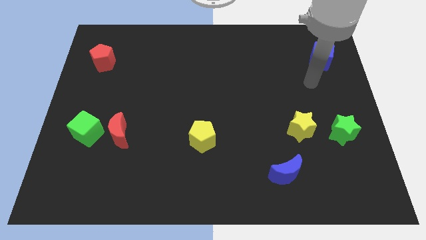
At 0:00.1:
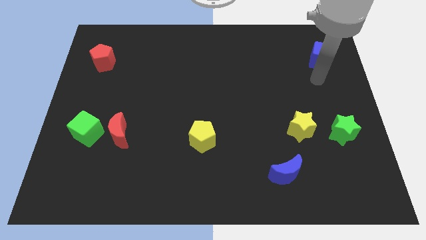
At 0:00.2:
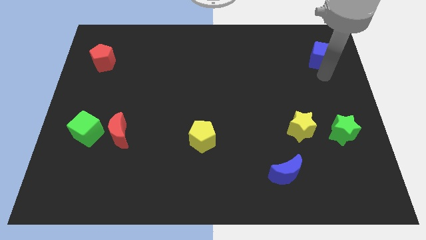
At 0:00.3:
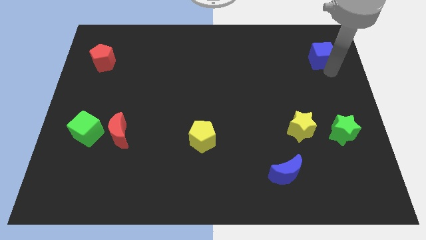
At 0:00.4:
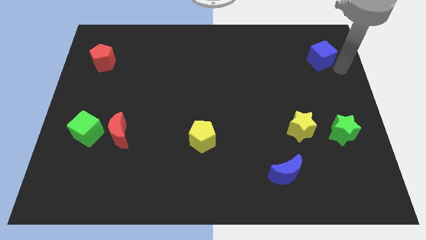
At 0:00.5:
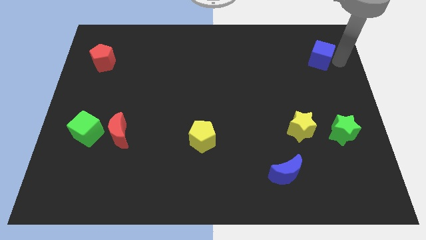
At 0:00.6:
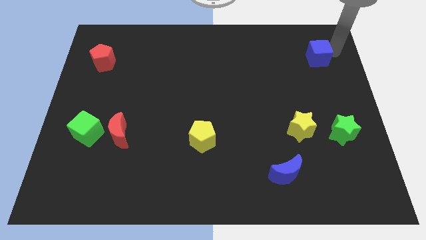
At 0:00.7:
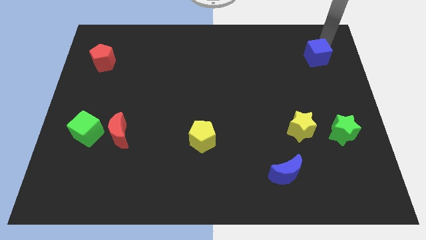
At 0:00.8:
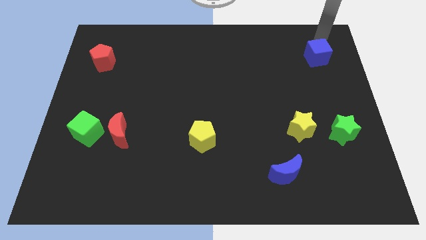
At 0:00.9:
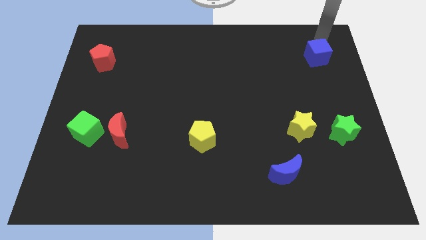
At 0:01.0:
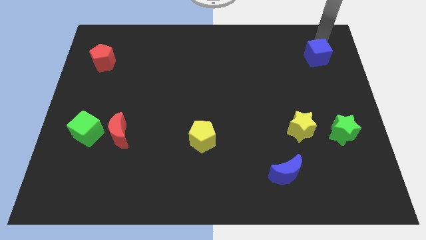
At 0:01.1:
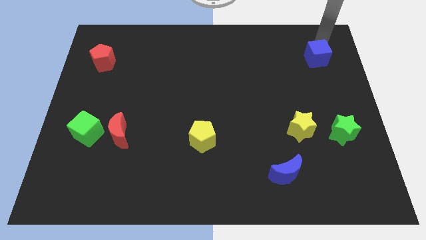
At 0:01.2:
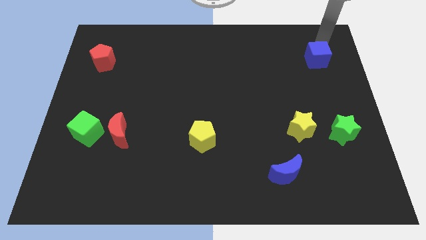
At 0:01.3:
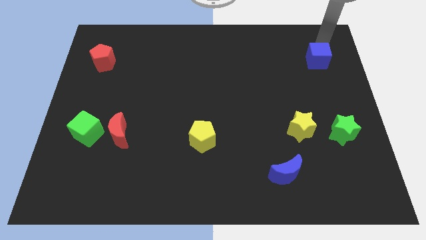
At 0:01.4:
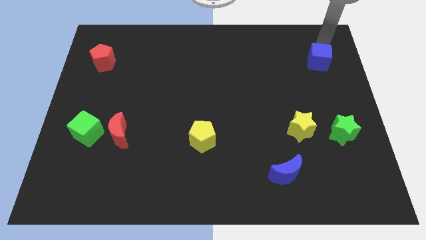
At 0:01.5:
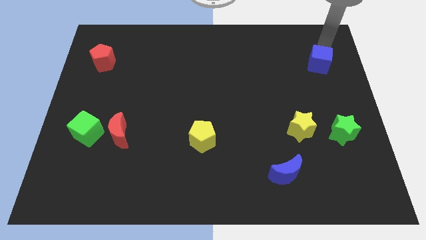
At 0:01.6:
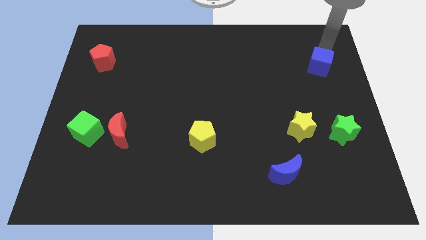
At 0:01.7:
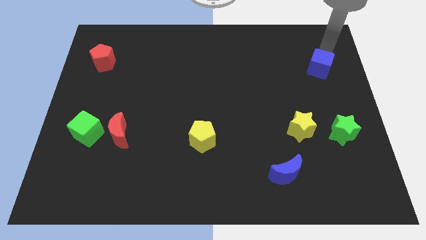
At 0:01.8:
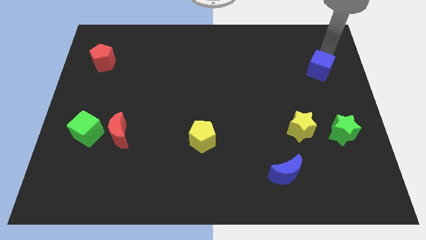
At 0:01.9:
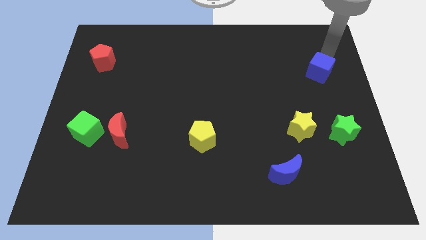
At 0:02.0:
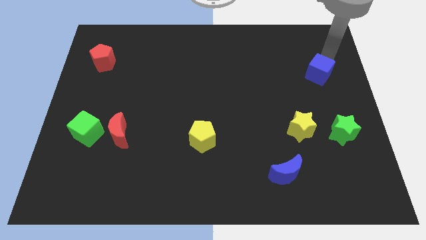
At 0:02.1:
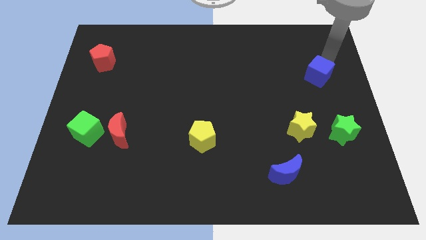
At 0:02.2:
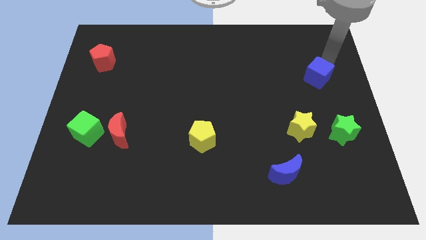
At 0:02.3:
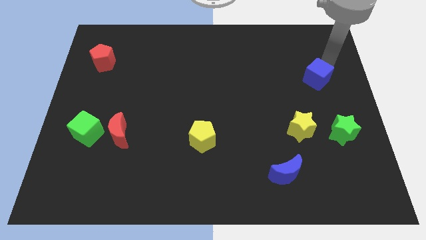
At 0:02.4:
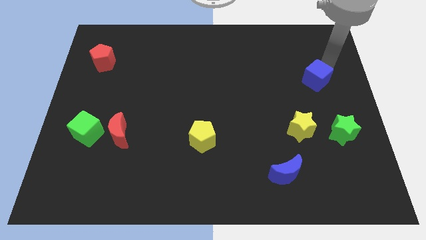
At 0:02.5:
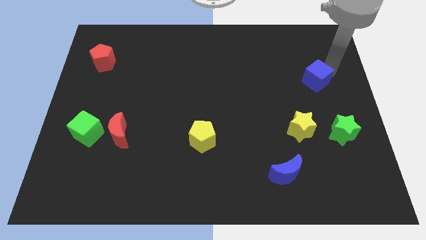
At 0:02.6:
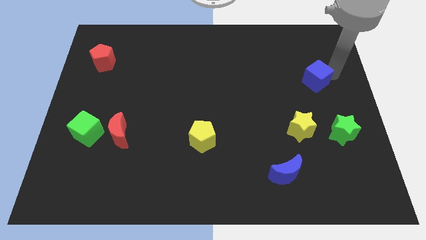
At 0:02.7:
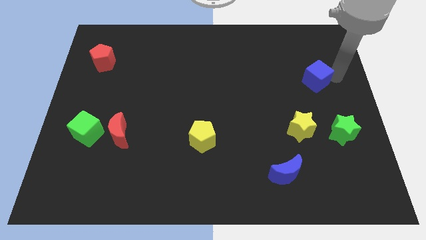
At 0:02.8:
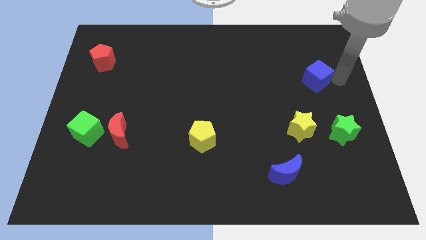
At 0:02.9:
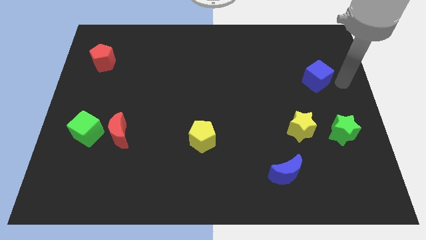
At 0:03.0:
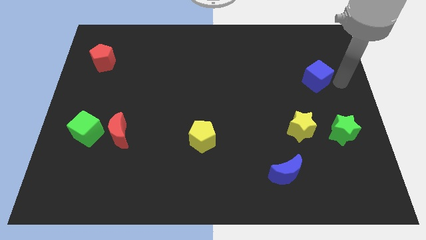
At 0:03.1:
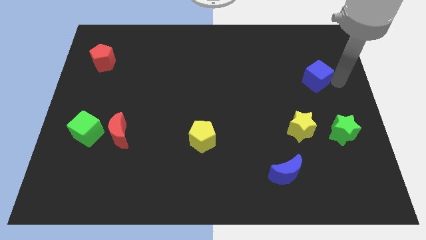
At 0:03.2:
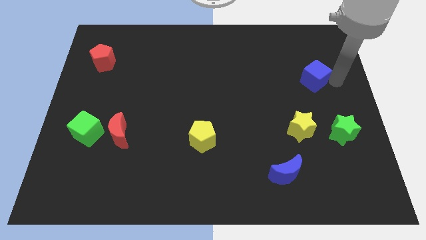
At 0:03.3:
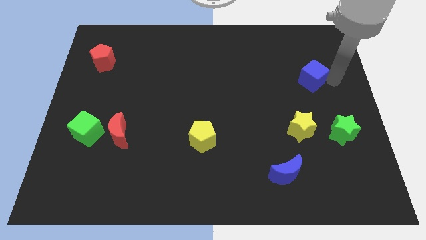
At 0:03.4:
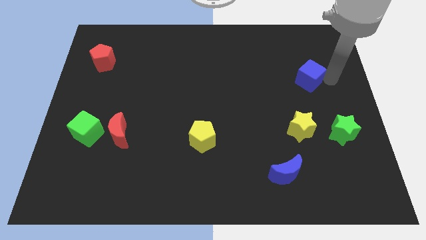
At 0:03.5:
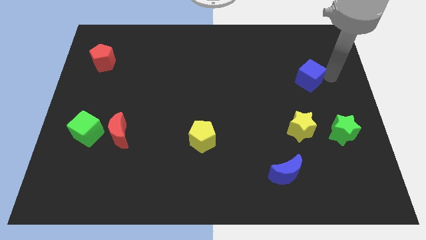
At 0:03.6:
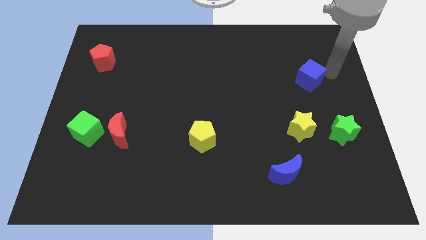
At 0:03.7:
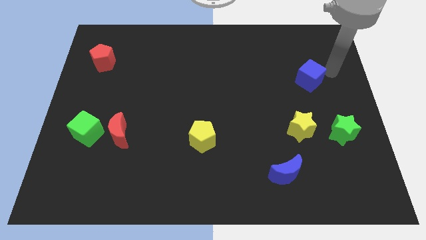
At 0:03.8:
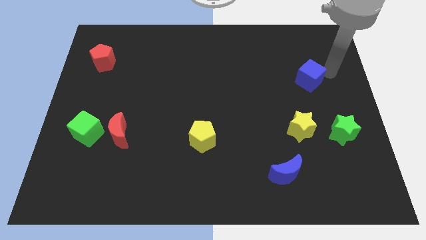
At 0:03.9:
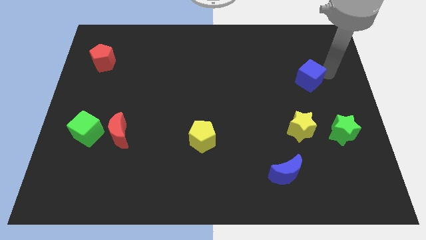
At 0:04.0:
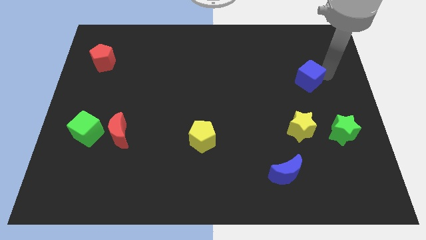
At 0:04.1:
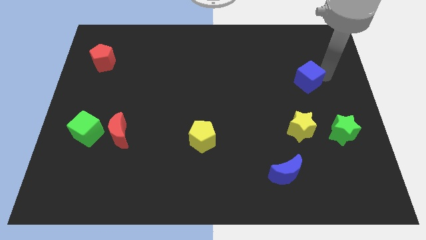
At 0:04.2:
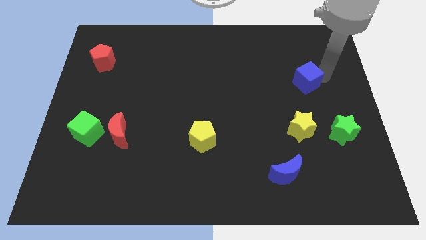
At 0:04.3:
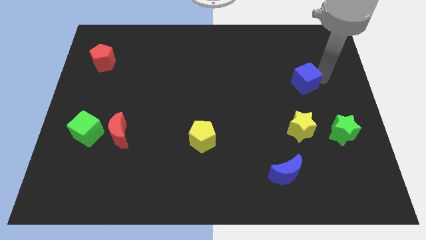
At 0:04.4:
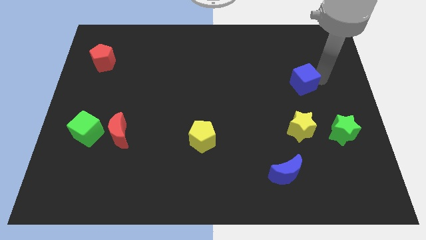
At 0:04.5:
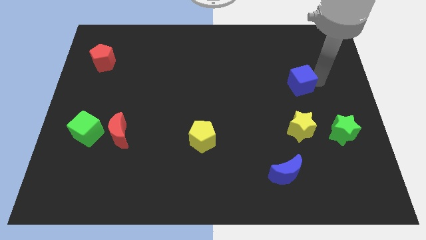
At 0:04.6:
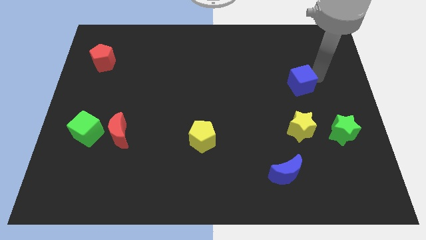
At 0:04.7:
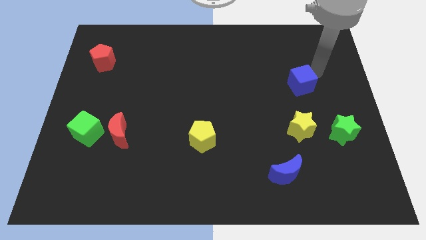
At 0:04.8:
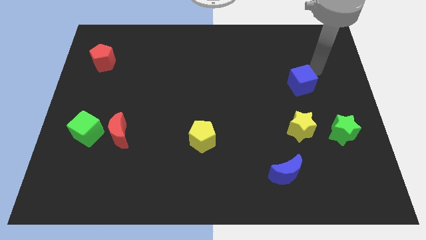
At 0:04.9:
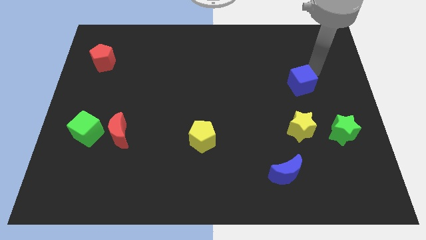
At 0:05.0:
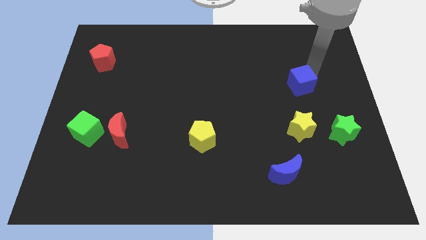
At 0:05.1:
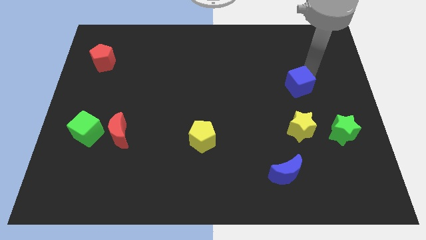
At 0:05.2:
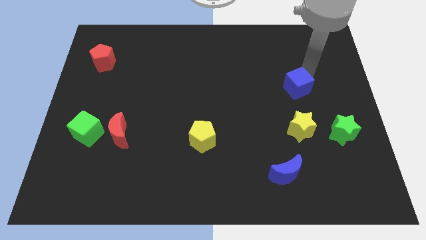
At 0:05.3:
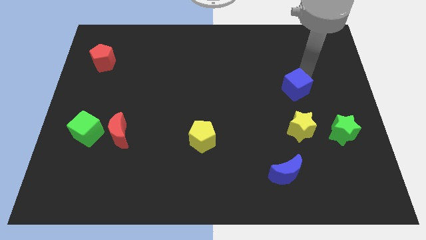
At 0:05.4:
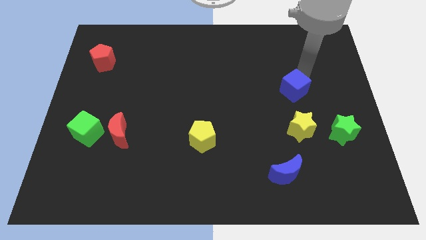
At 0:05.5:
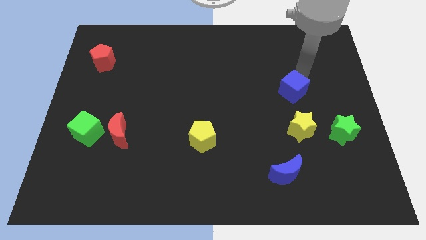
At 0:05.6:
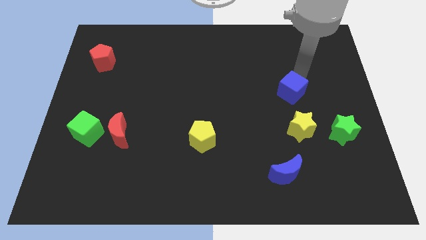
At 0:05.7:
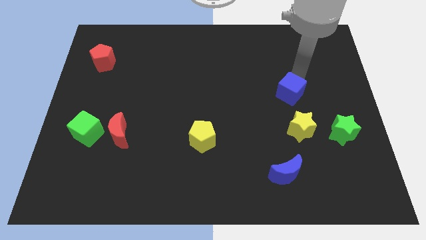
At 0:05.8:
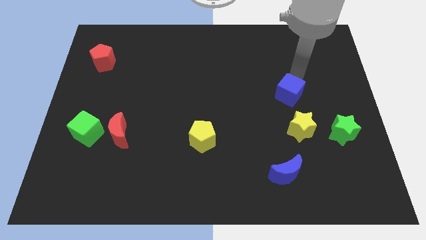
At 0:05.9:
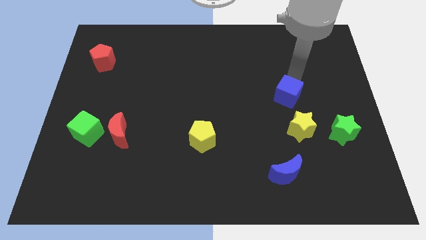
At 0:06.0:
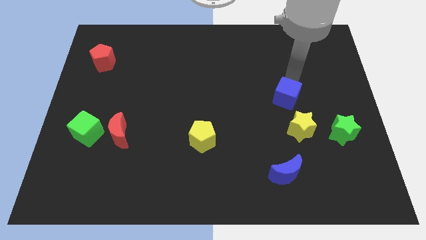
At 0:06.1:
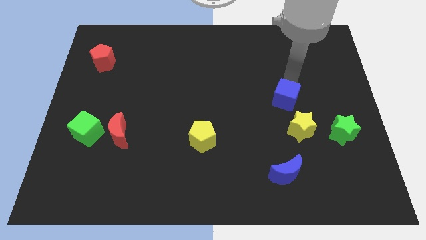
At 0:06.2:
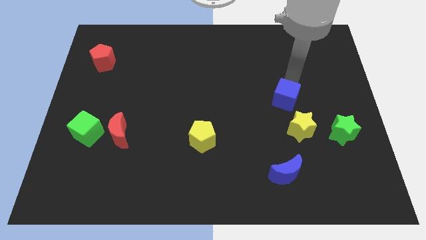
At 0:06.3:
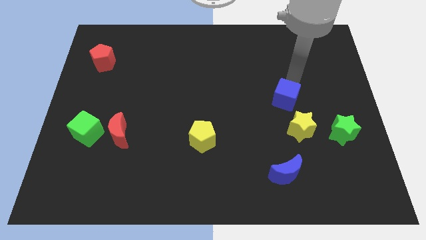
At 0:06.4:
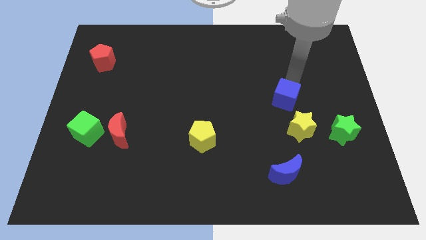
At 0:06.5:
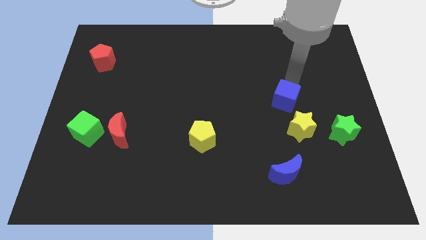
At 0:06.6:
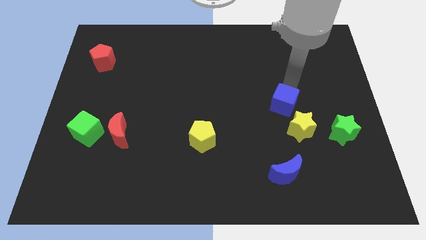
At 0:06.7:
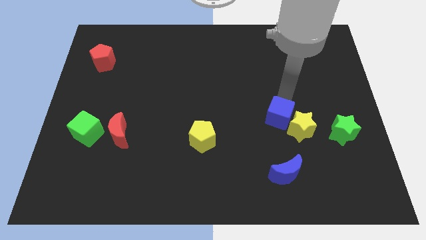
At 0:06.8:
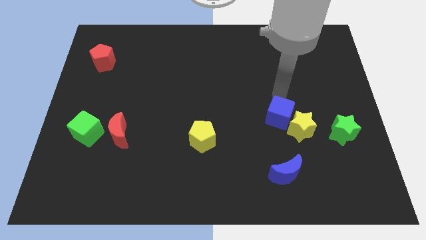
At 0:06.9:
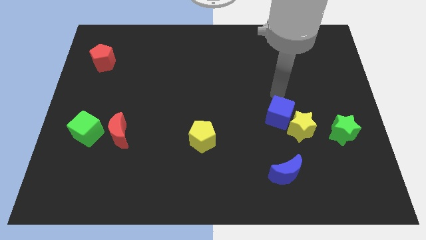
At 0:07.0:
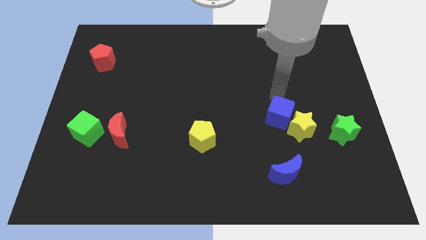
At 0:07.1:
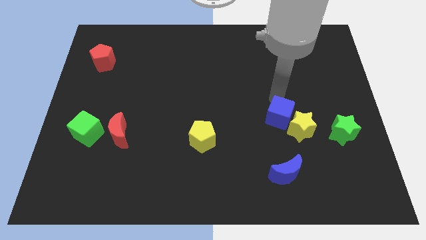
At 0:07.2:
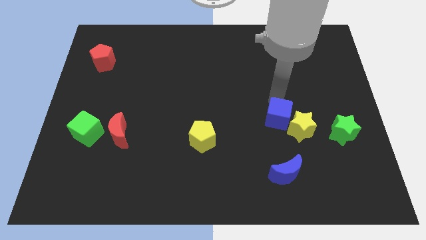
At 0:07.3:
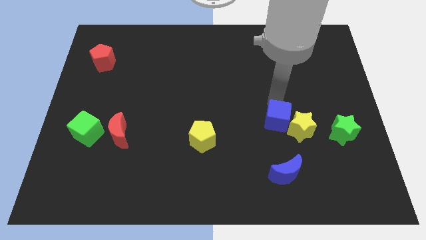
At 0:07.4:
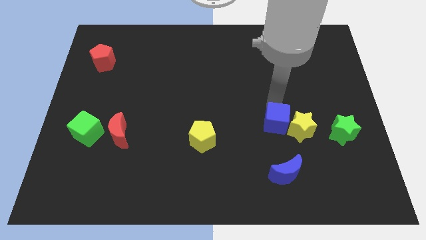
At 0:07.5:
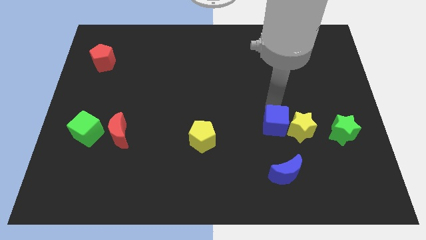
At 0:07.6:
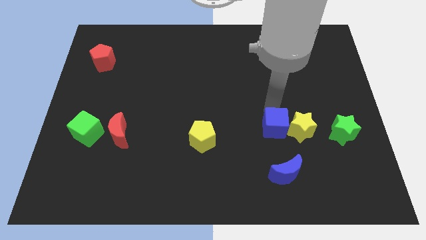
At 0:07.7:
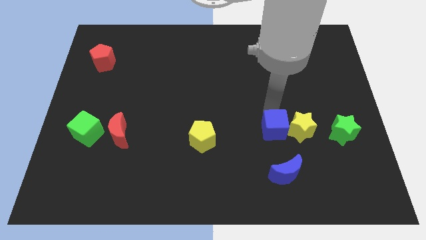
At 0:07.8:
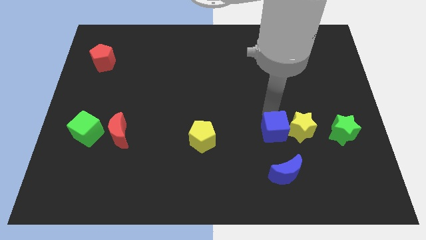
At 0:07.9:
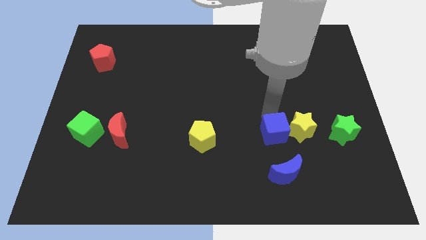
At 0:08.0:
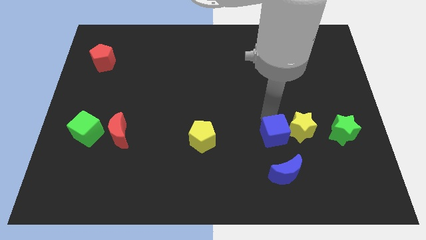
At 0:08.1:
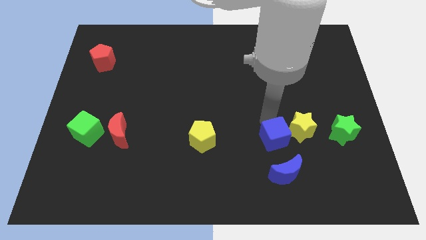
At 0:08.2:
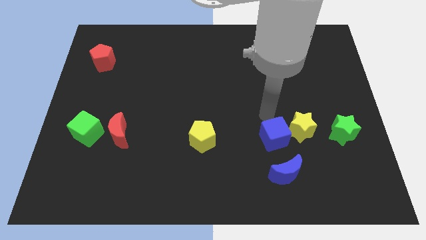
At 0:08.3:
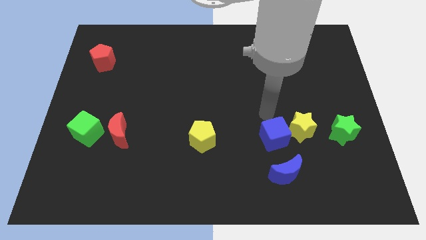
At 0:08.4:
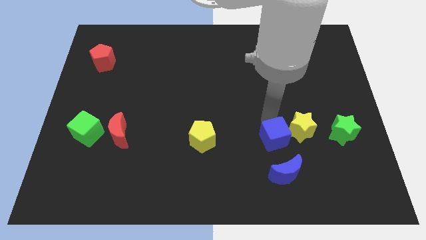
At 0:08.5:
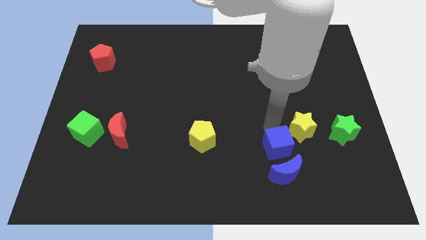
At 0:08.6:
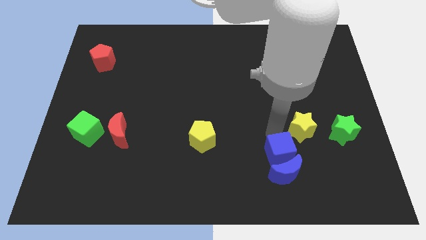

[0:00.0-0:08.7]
move the blue cube next to the blue moon
